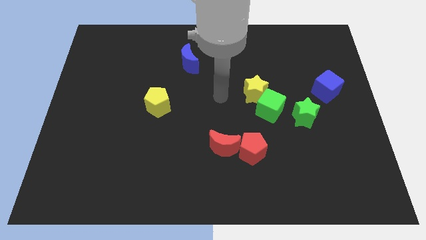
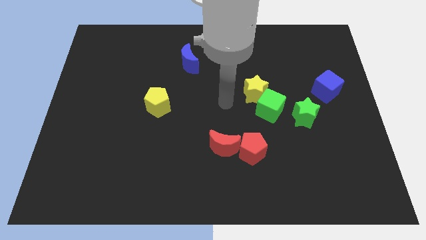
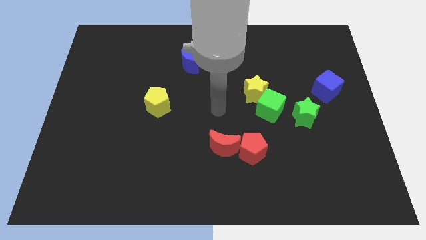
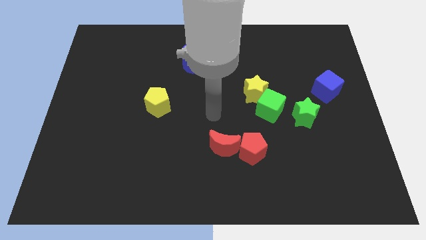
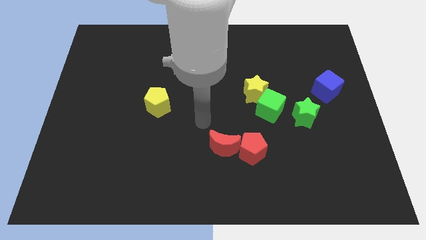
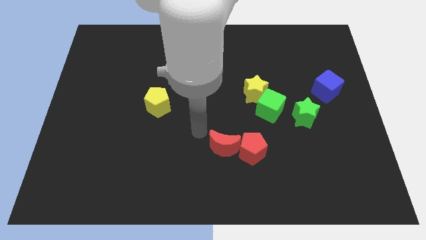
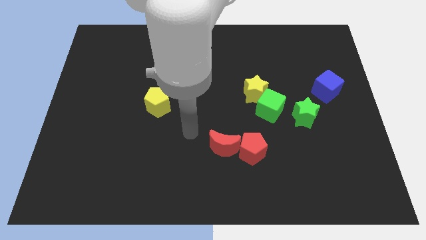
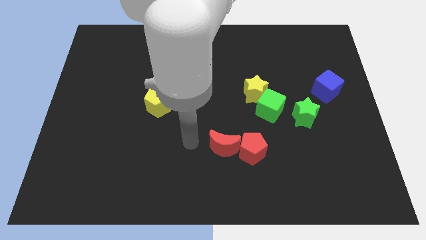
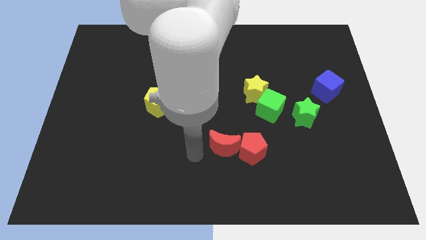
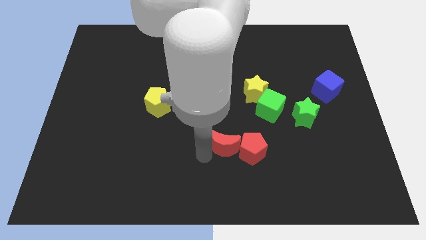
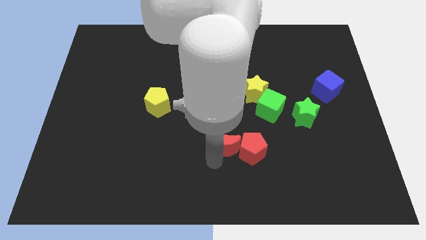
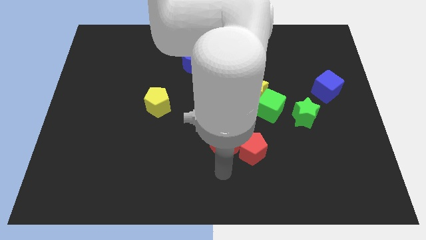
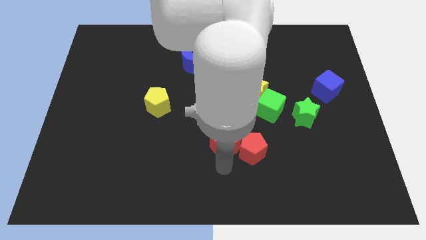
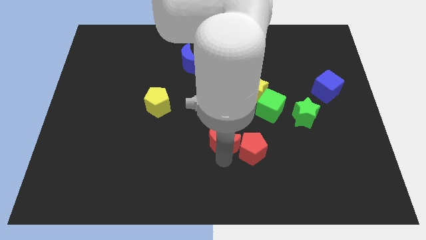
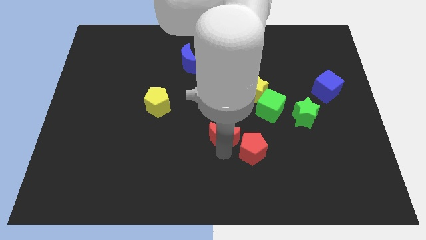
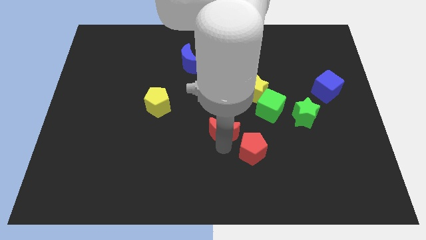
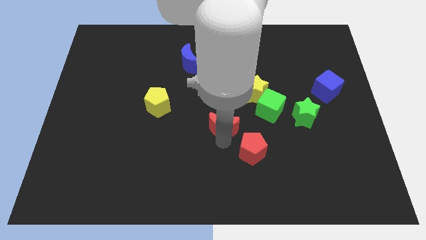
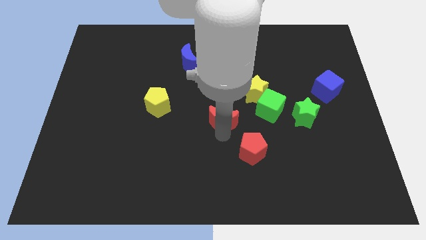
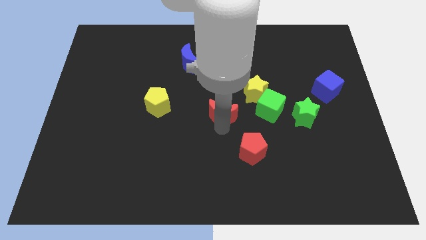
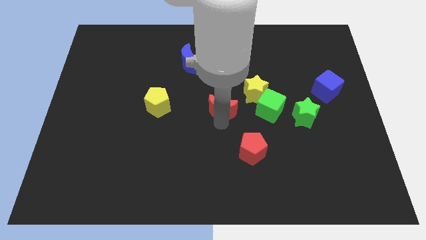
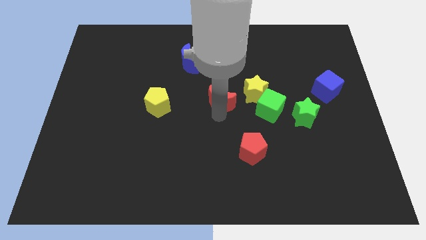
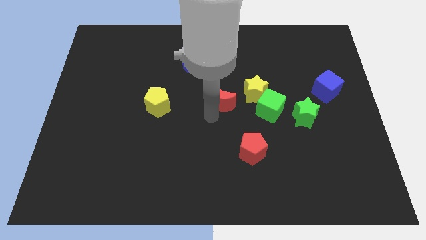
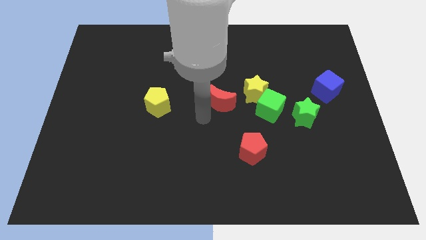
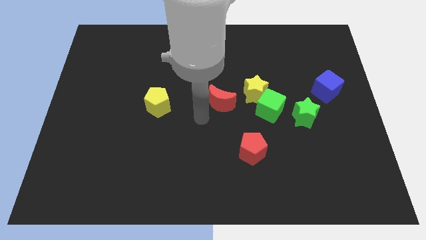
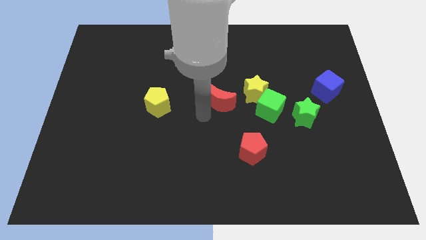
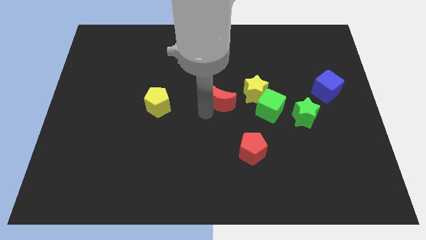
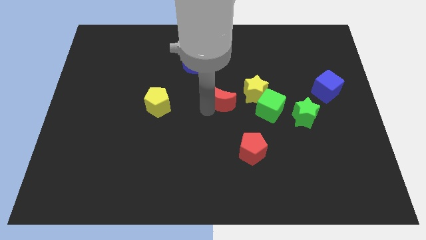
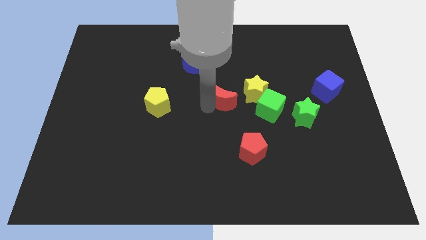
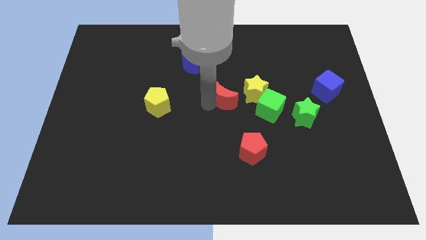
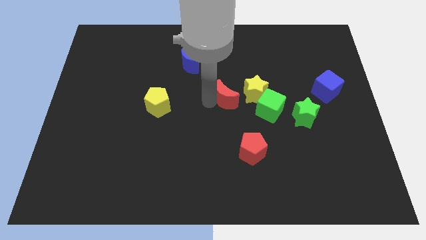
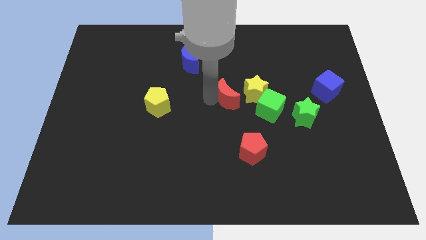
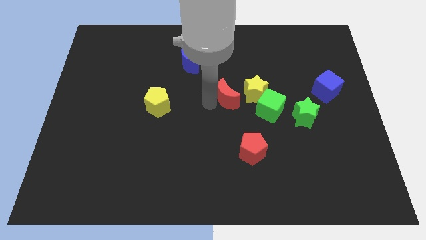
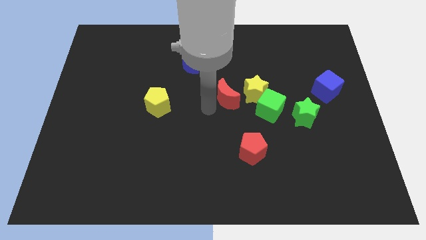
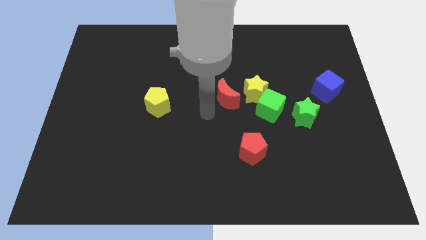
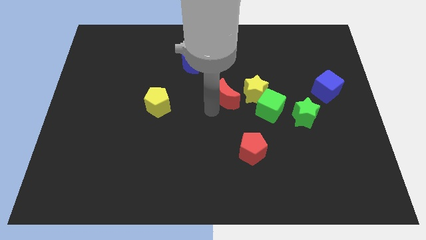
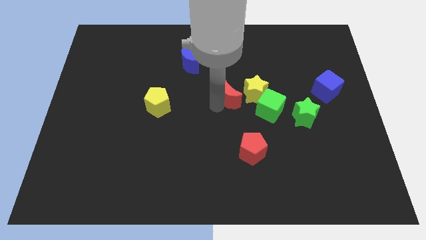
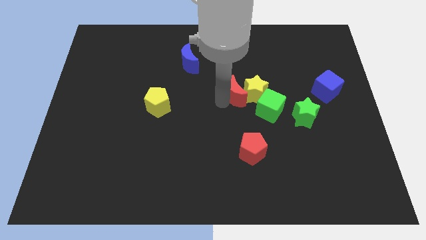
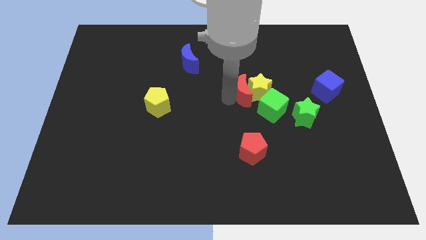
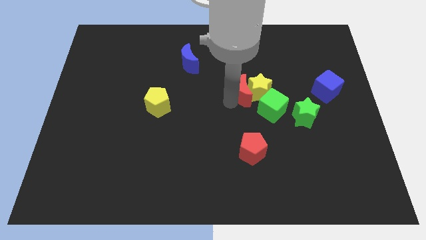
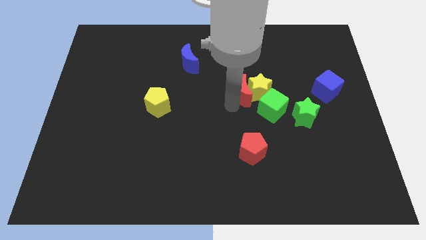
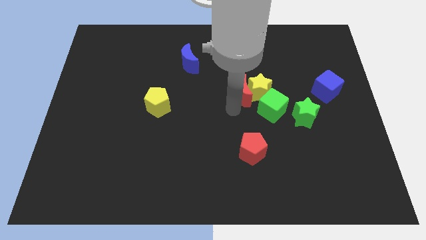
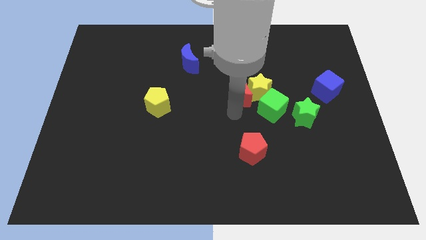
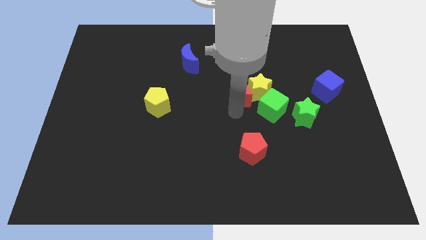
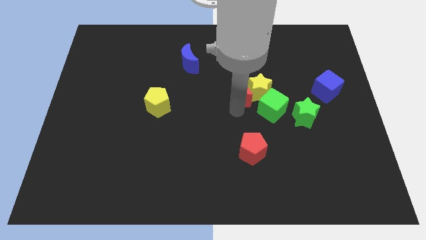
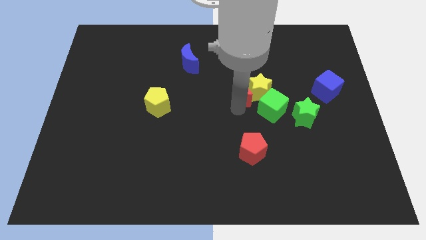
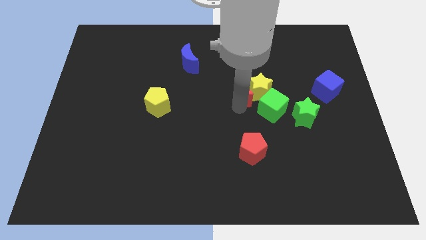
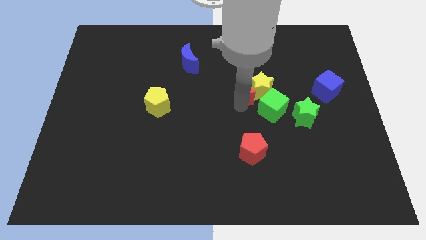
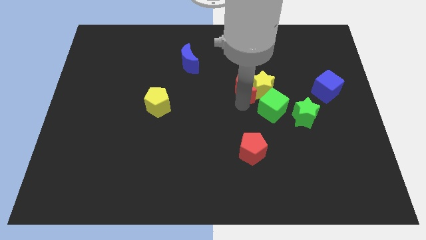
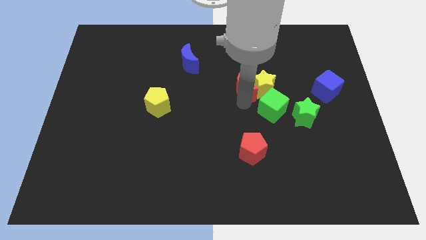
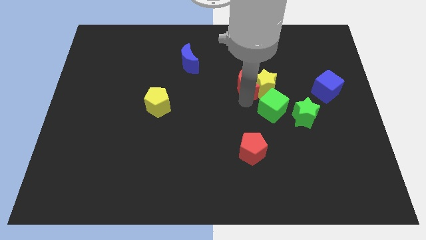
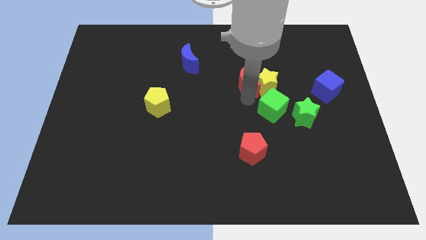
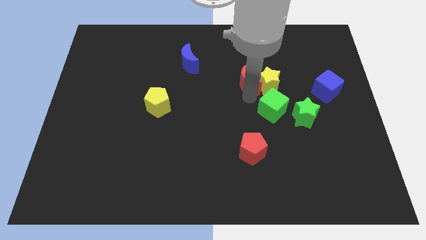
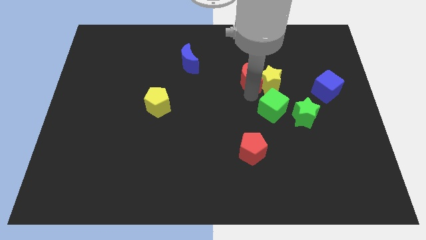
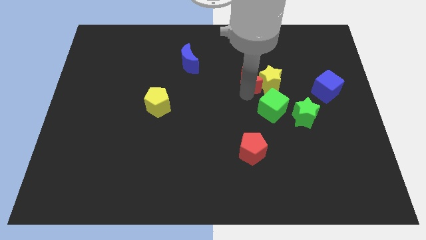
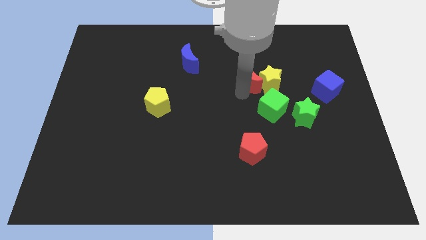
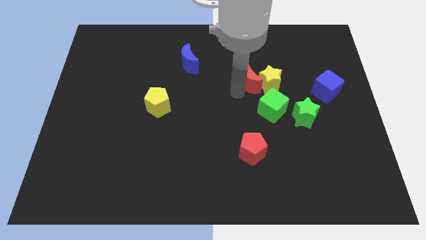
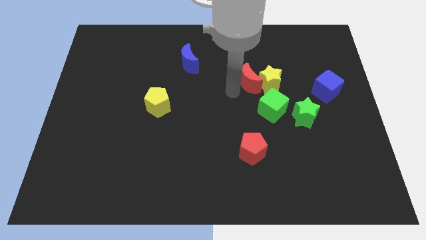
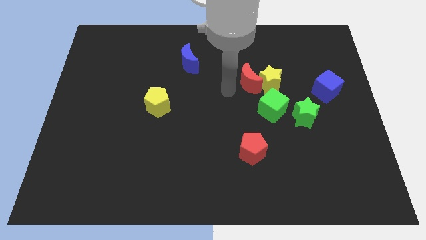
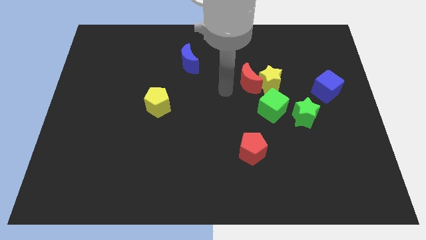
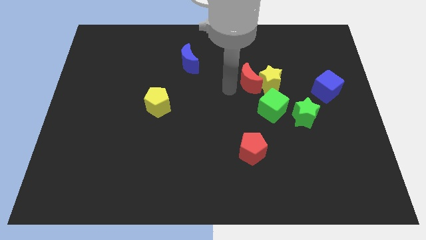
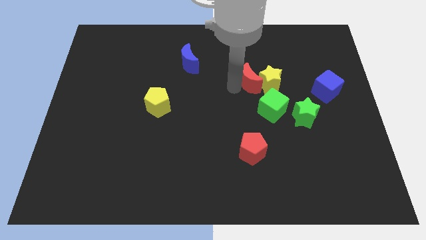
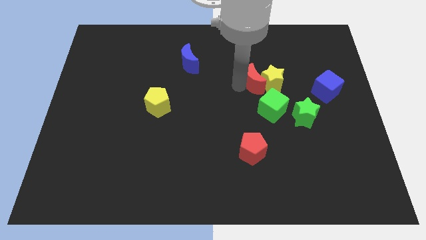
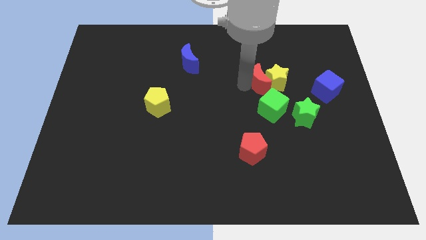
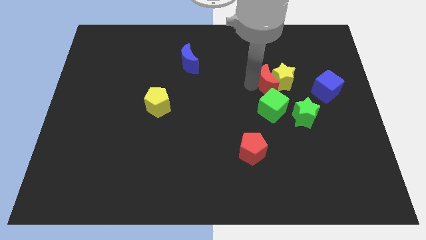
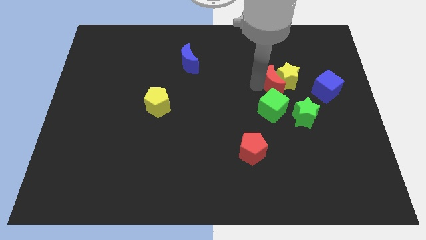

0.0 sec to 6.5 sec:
move the red moon up and to the right

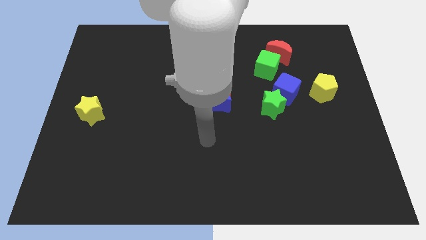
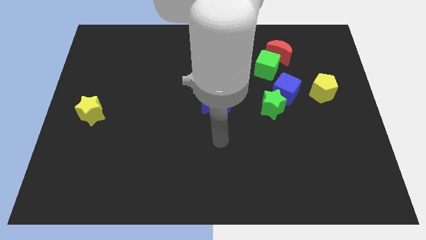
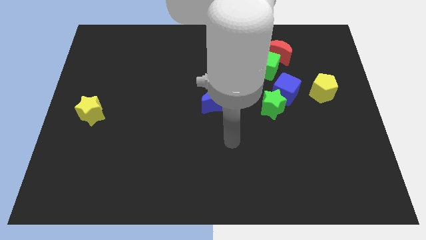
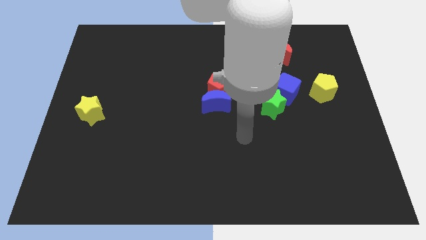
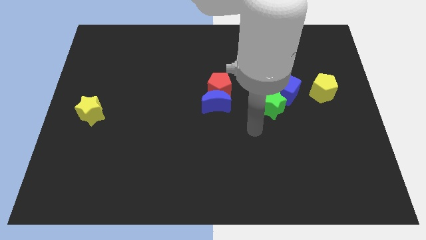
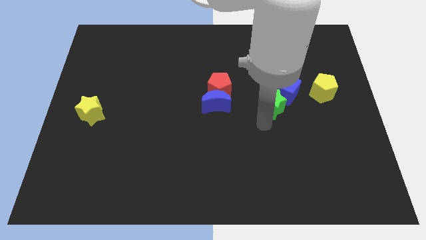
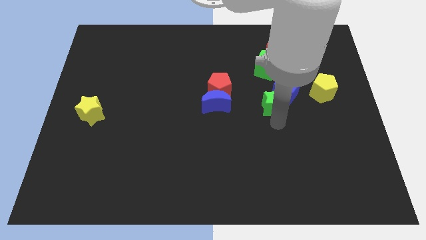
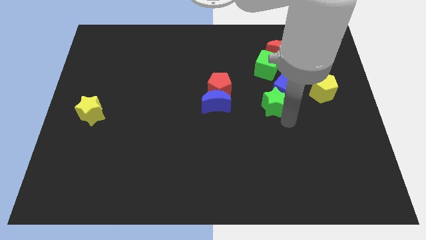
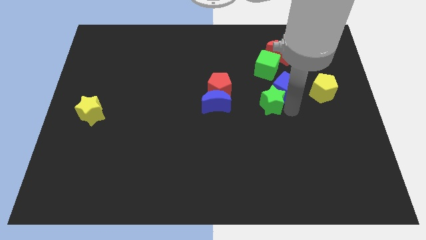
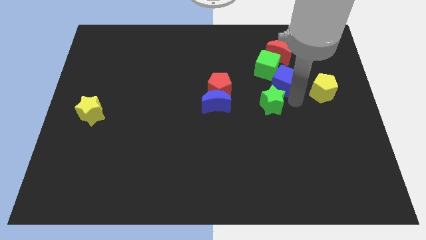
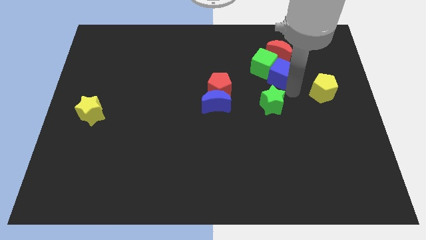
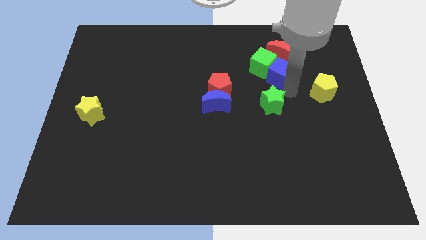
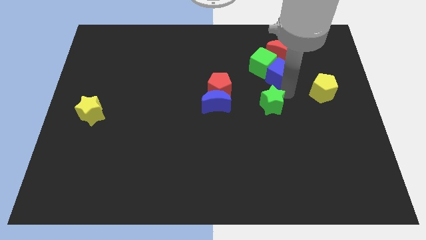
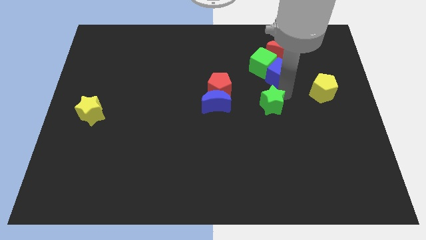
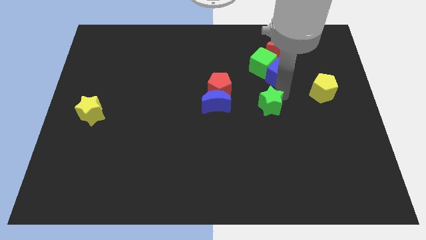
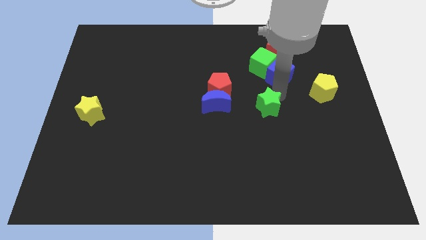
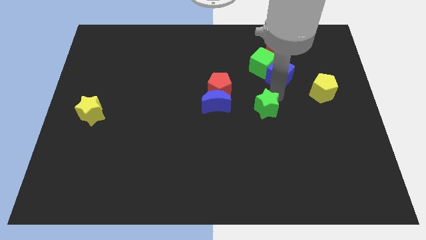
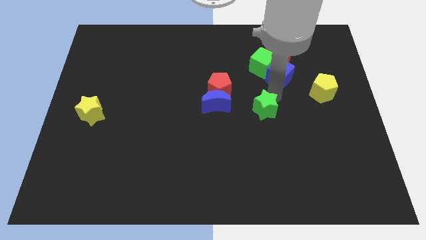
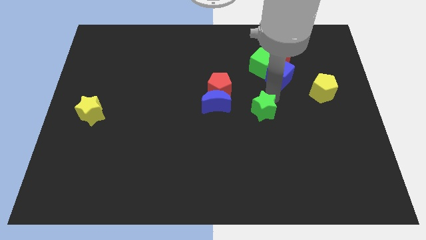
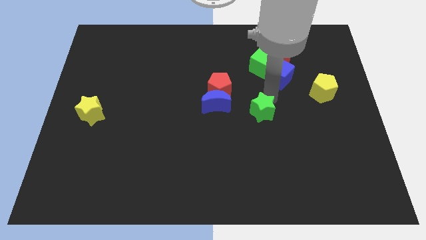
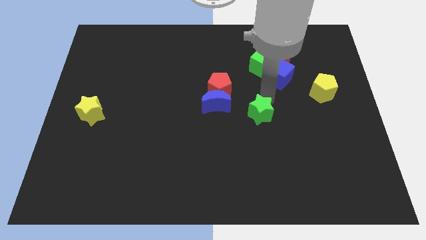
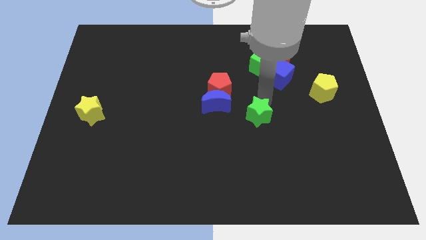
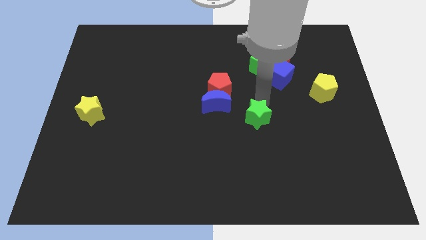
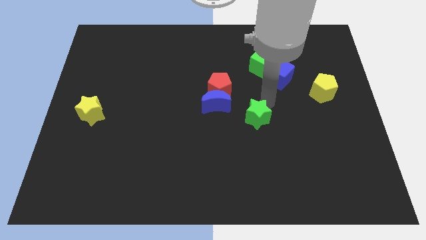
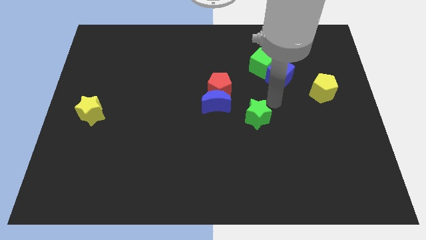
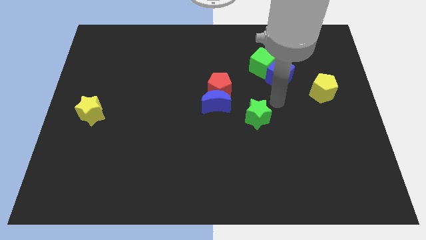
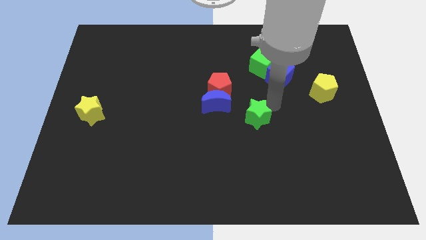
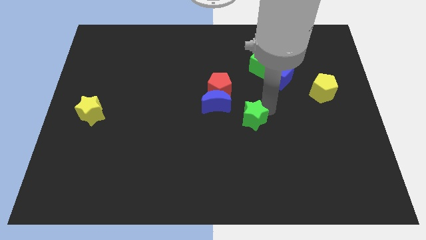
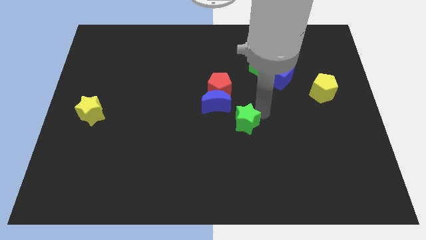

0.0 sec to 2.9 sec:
slightly move the green star diagonally downwards and left
